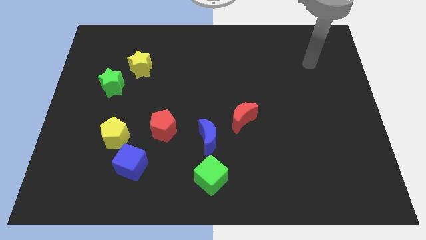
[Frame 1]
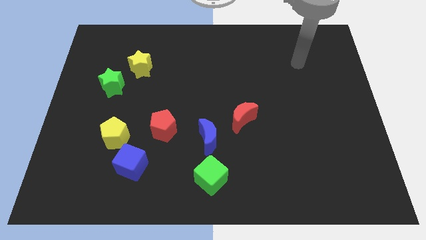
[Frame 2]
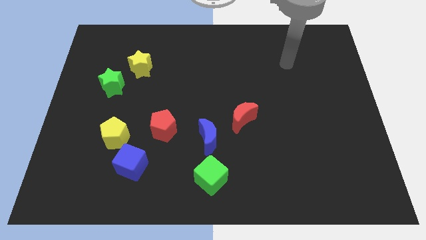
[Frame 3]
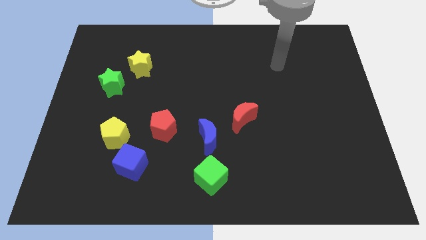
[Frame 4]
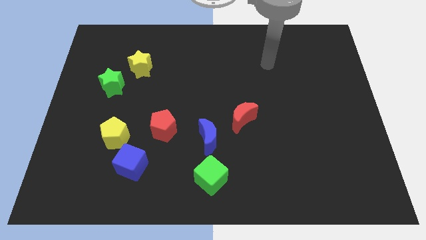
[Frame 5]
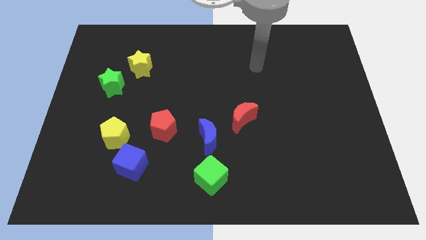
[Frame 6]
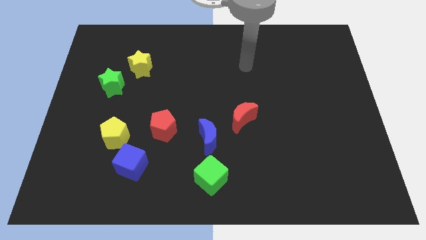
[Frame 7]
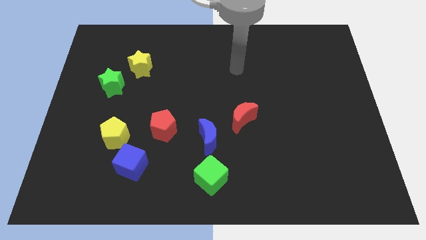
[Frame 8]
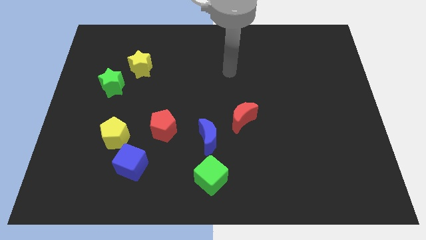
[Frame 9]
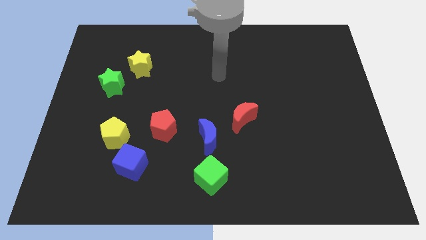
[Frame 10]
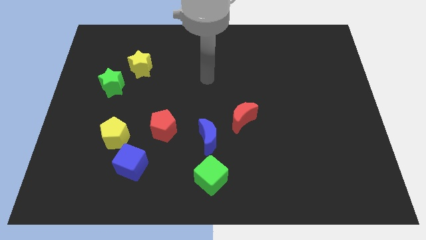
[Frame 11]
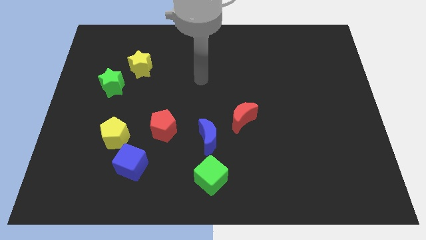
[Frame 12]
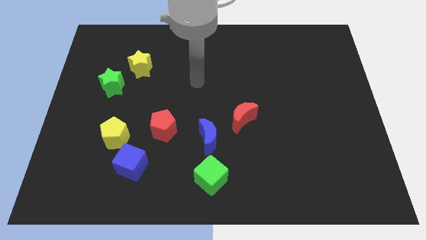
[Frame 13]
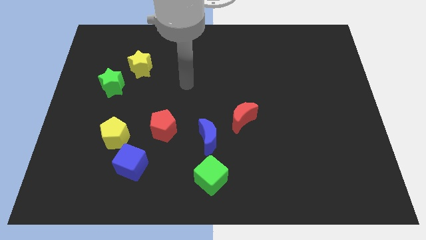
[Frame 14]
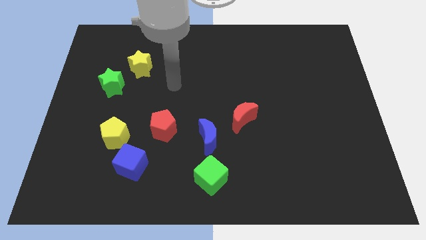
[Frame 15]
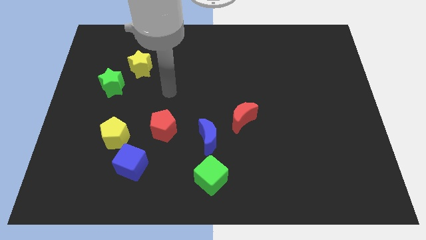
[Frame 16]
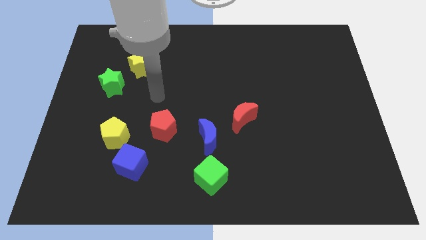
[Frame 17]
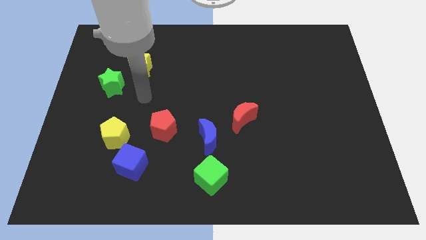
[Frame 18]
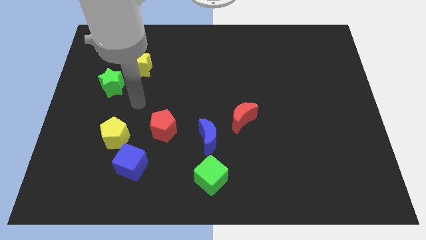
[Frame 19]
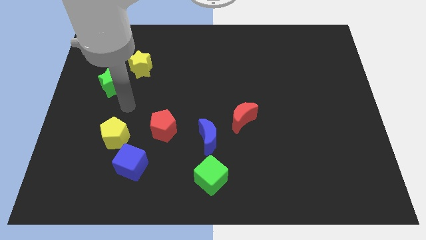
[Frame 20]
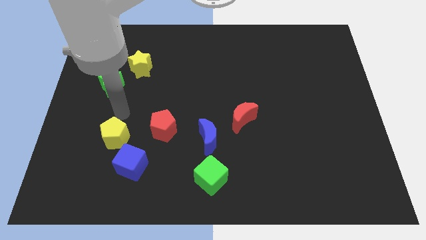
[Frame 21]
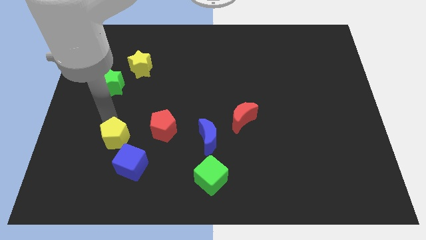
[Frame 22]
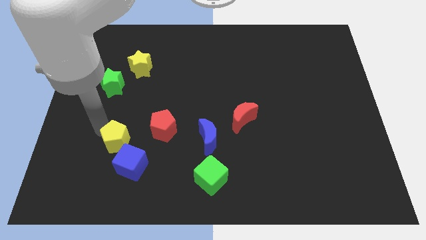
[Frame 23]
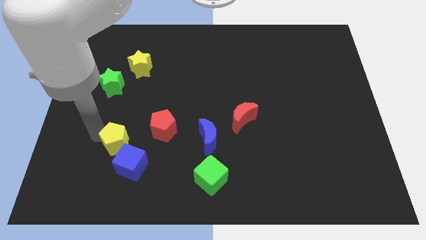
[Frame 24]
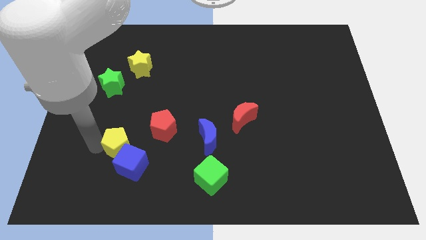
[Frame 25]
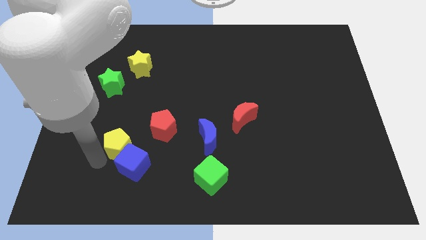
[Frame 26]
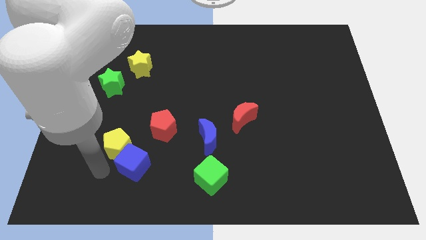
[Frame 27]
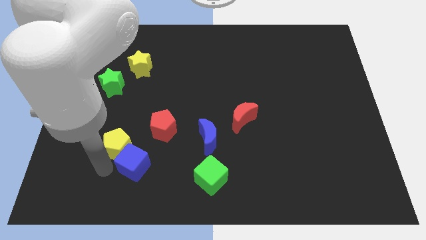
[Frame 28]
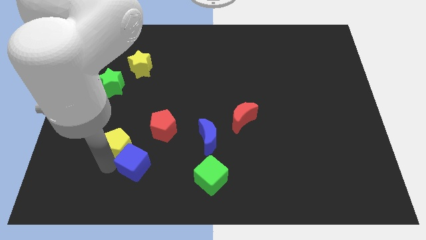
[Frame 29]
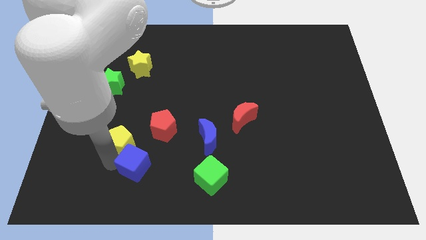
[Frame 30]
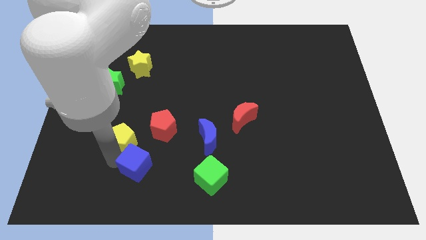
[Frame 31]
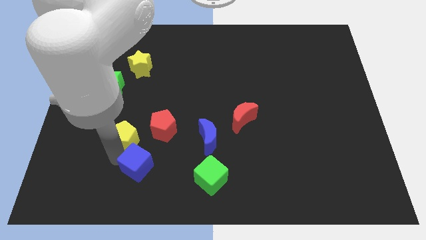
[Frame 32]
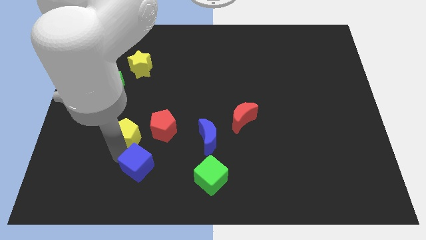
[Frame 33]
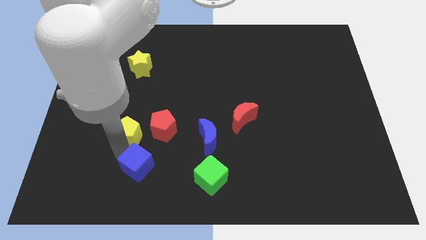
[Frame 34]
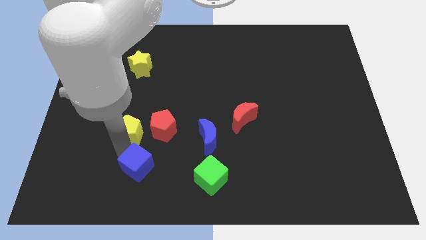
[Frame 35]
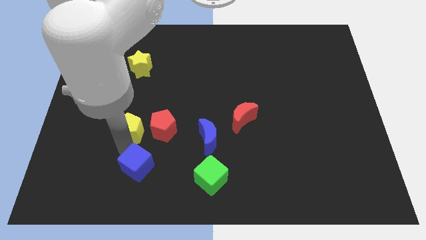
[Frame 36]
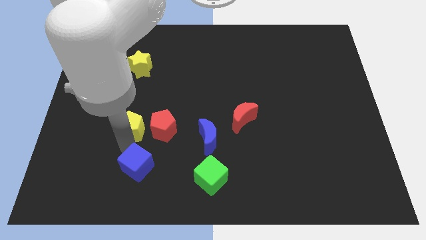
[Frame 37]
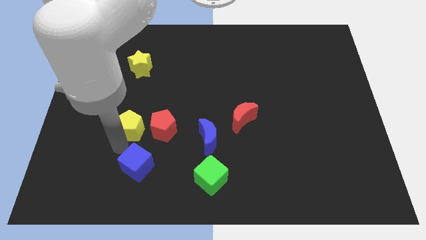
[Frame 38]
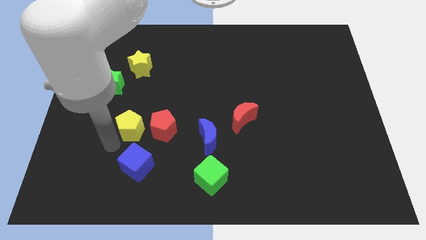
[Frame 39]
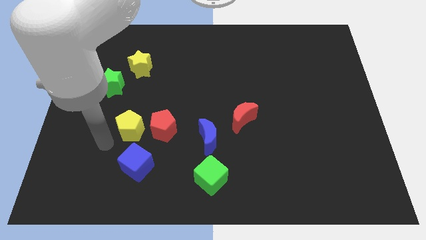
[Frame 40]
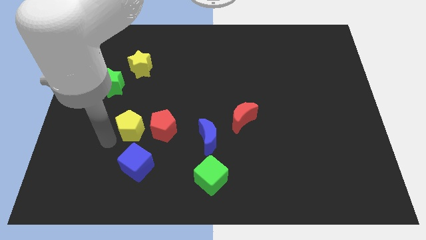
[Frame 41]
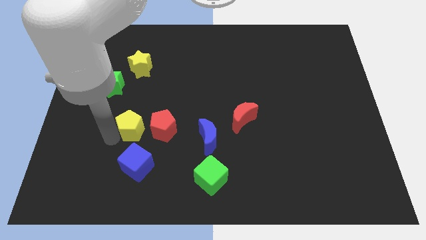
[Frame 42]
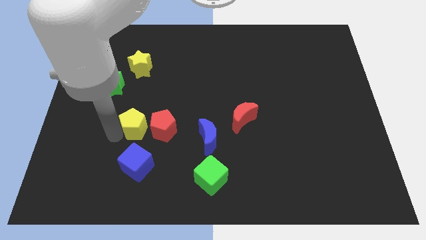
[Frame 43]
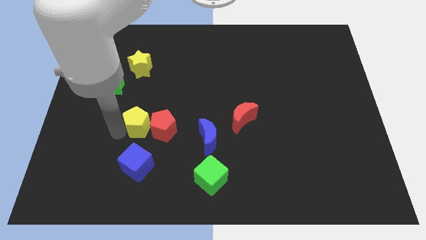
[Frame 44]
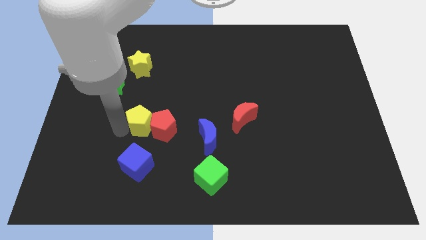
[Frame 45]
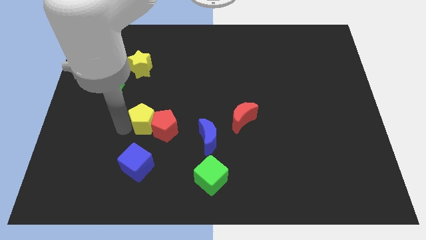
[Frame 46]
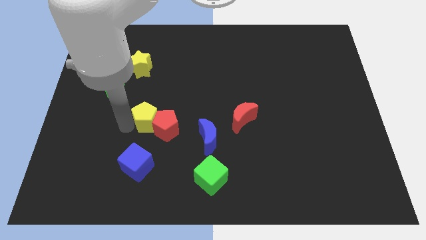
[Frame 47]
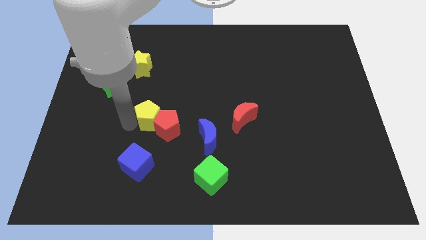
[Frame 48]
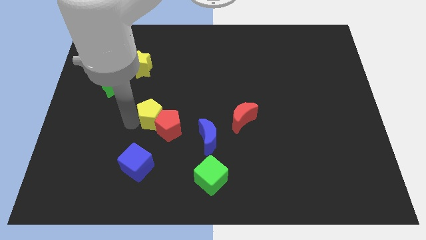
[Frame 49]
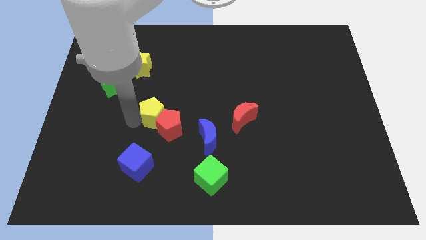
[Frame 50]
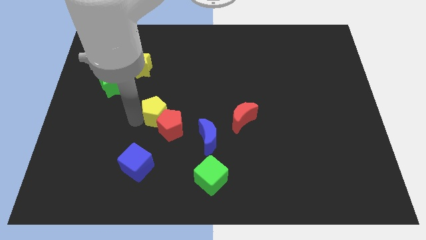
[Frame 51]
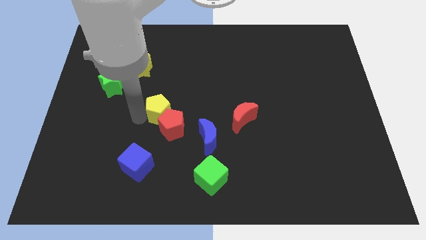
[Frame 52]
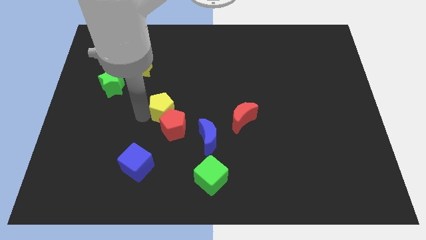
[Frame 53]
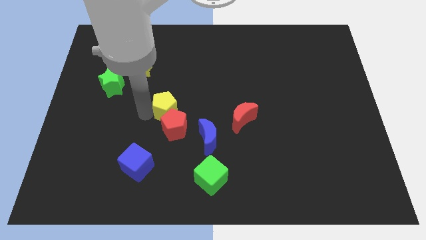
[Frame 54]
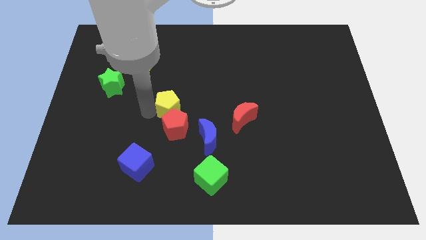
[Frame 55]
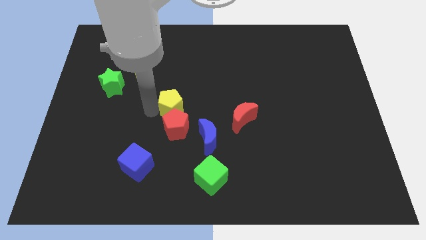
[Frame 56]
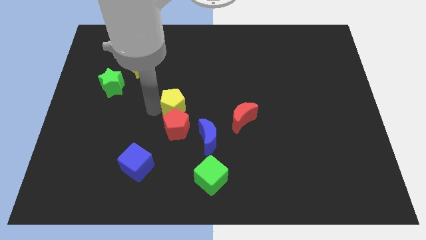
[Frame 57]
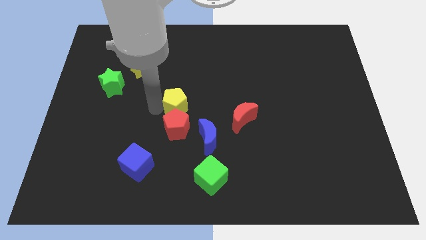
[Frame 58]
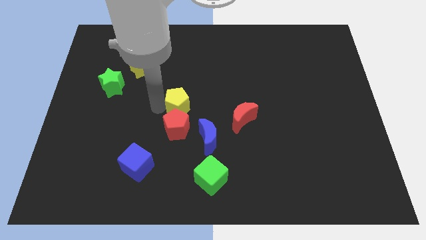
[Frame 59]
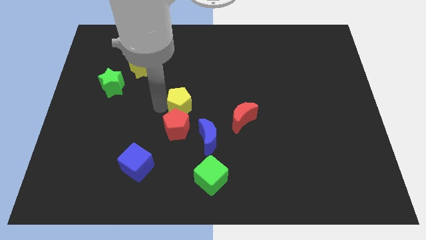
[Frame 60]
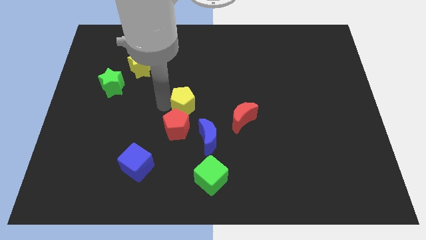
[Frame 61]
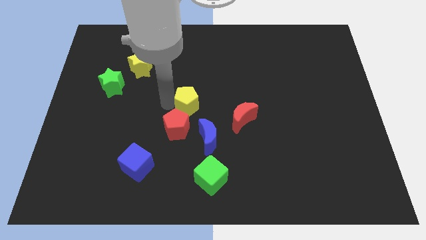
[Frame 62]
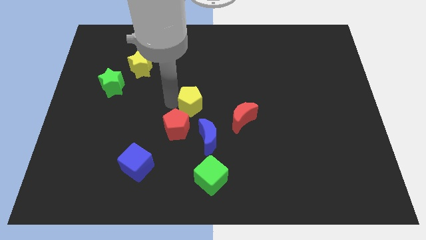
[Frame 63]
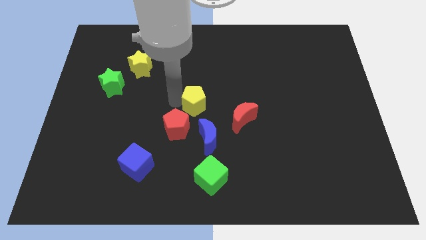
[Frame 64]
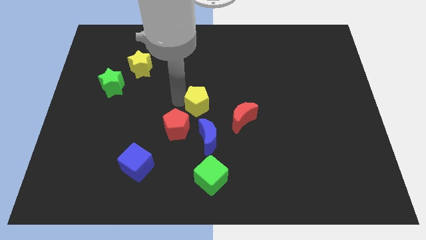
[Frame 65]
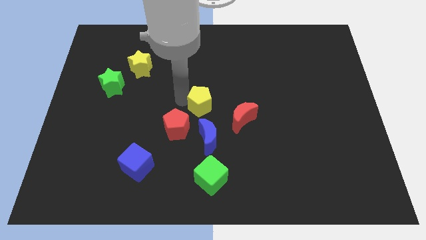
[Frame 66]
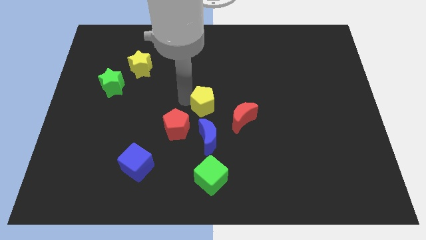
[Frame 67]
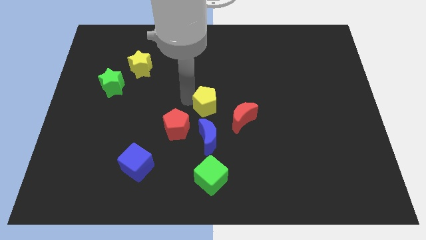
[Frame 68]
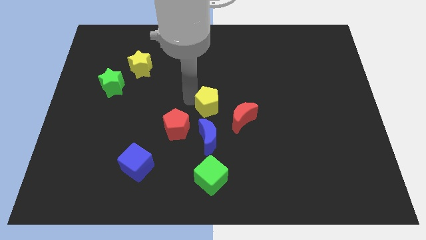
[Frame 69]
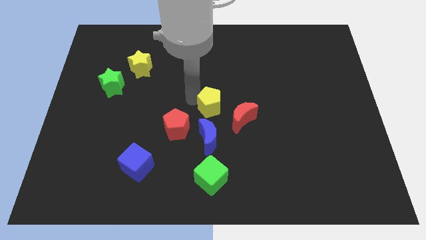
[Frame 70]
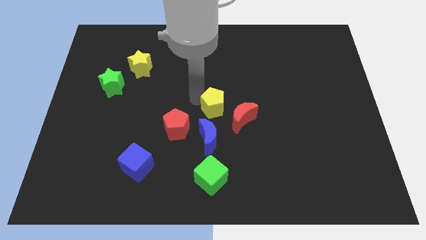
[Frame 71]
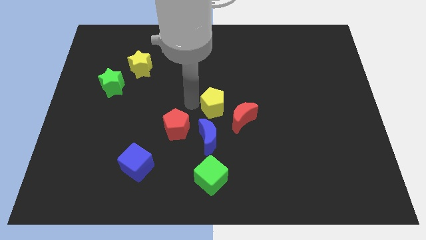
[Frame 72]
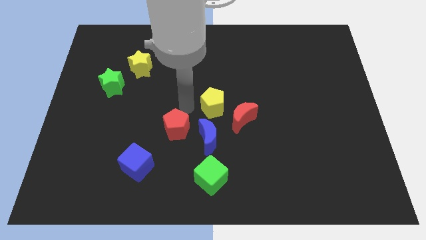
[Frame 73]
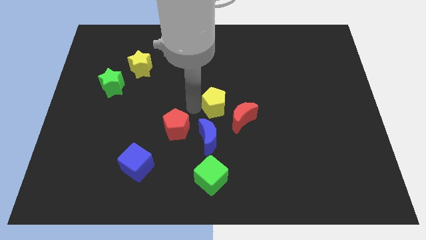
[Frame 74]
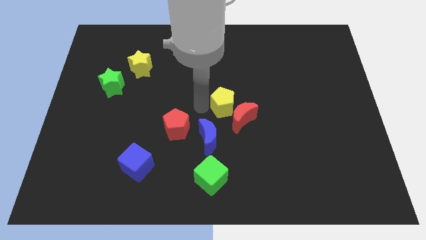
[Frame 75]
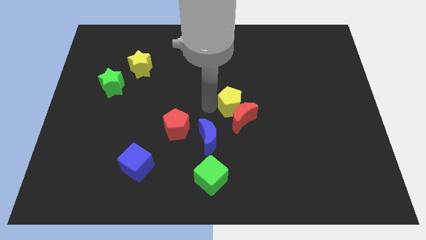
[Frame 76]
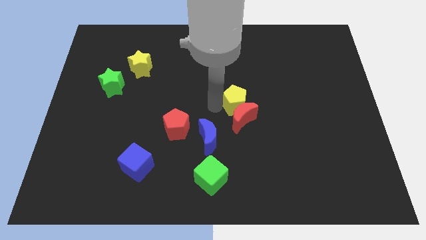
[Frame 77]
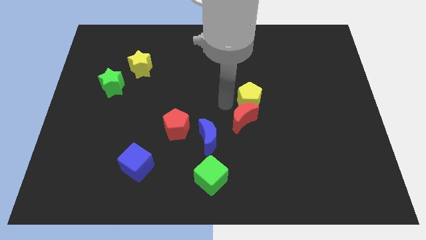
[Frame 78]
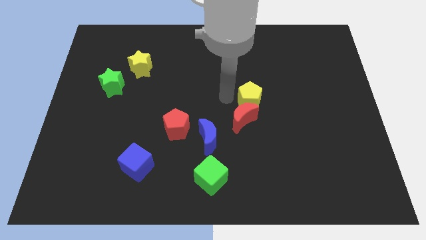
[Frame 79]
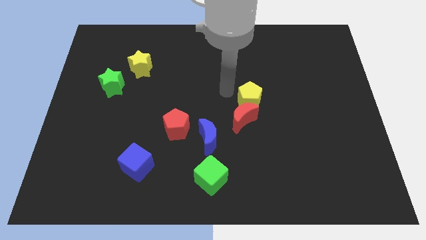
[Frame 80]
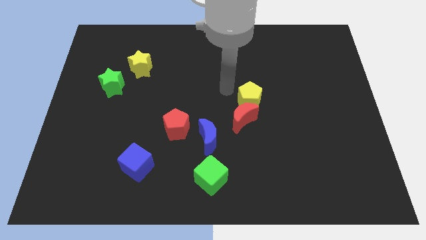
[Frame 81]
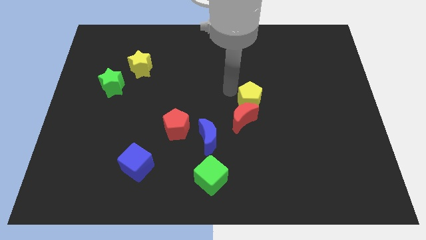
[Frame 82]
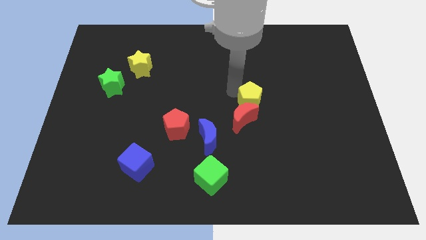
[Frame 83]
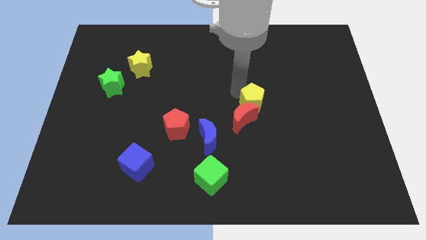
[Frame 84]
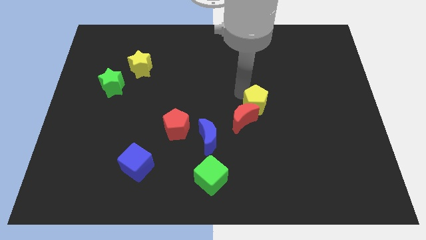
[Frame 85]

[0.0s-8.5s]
slide the yellow pentagon right of the red moon
